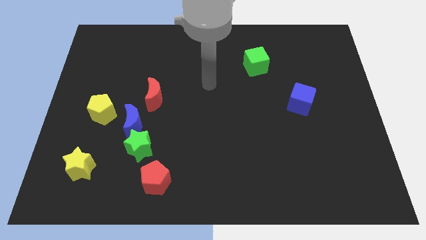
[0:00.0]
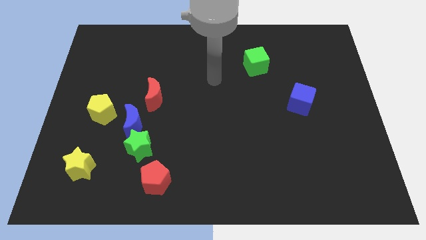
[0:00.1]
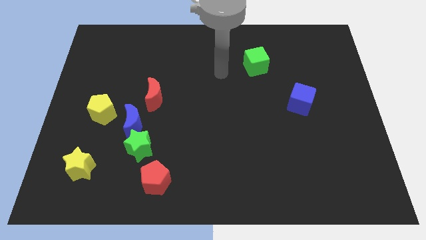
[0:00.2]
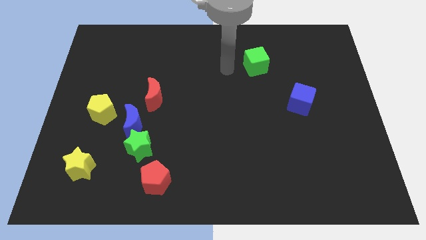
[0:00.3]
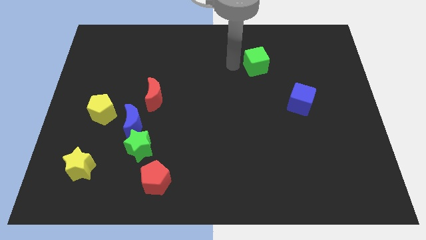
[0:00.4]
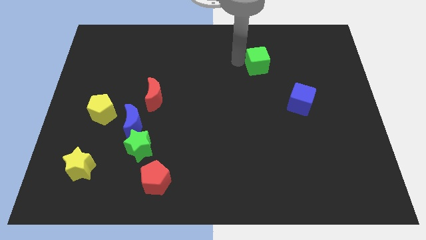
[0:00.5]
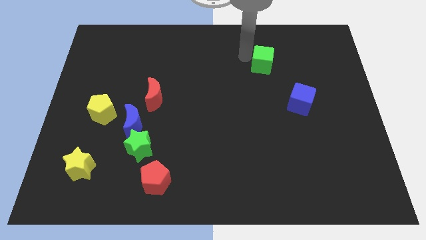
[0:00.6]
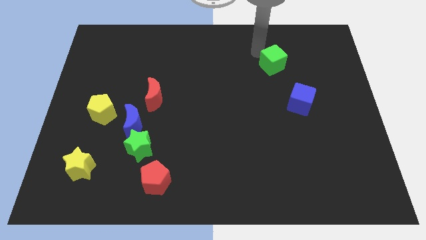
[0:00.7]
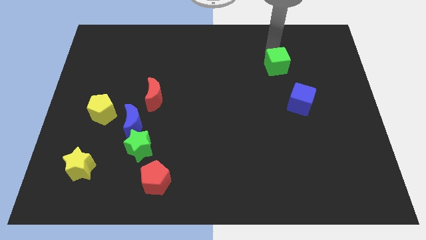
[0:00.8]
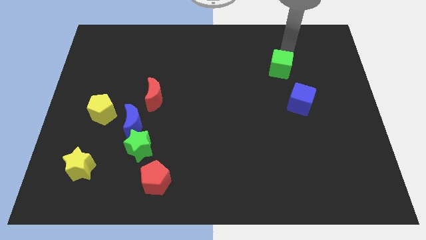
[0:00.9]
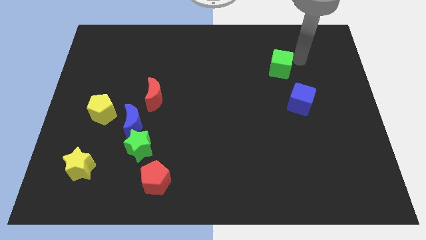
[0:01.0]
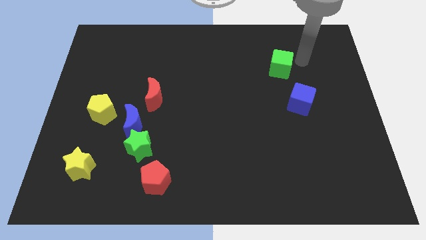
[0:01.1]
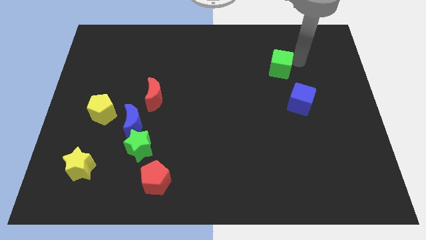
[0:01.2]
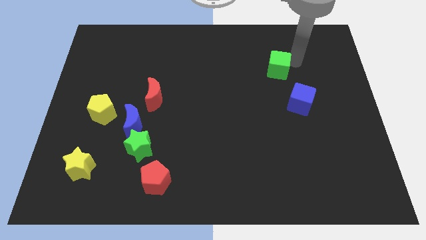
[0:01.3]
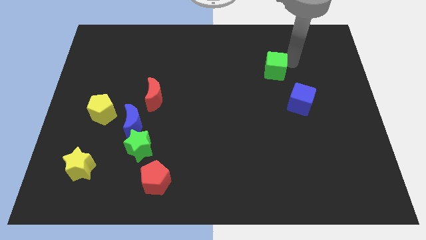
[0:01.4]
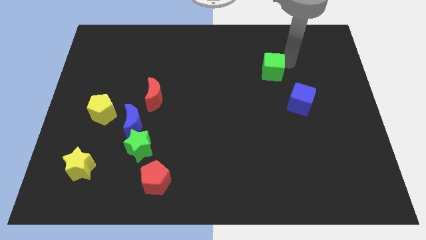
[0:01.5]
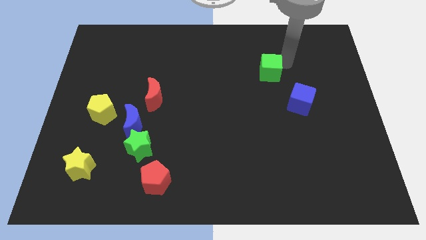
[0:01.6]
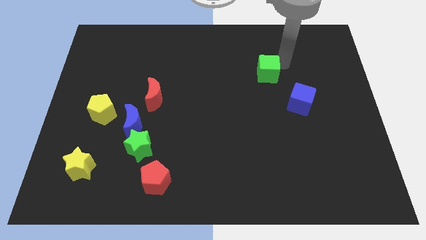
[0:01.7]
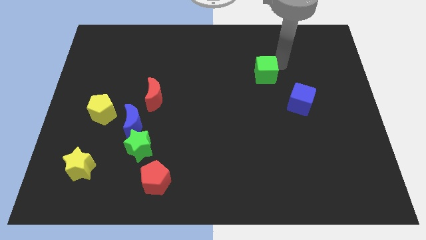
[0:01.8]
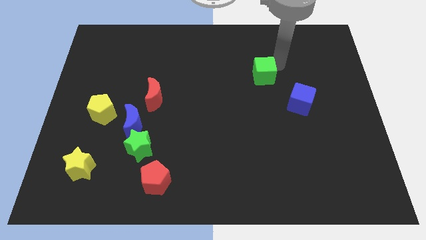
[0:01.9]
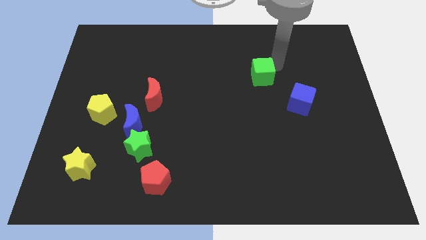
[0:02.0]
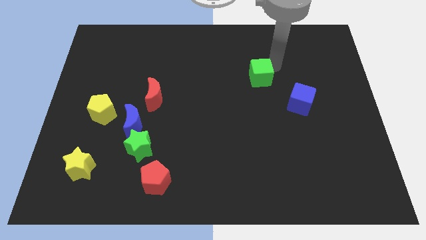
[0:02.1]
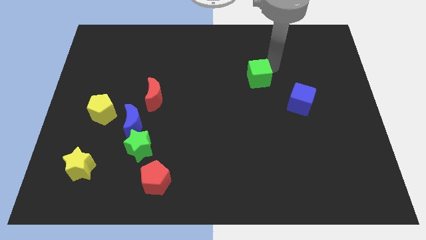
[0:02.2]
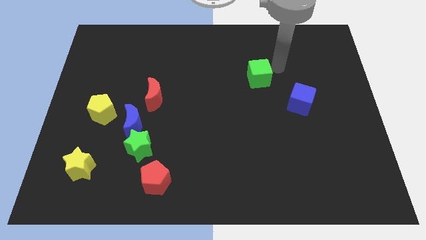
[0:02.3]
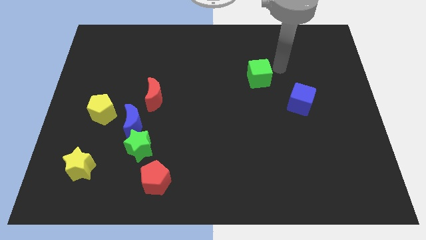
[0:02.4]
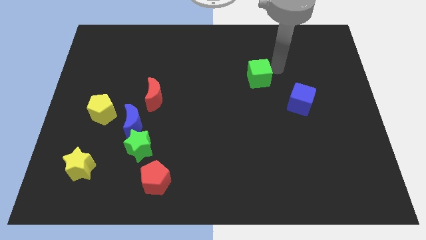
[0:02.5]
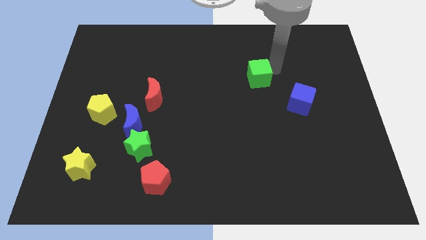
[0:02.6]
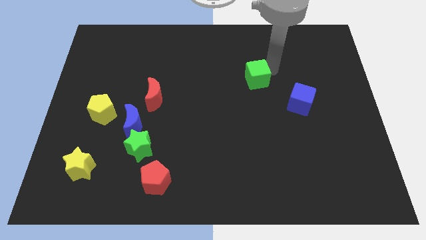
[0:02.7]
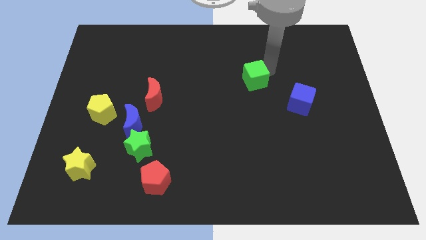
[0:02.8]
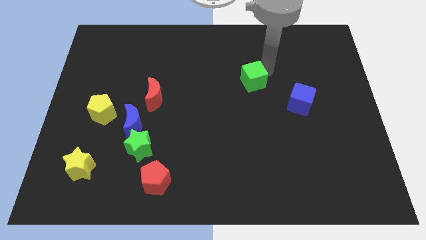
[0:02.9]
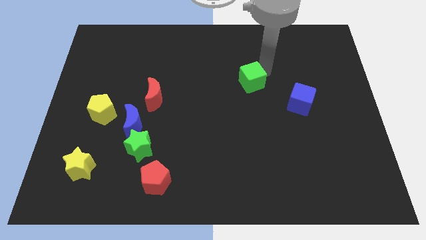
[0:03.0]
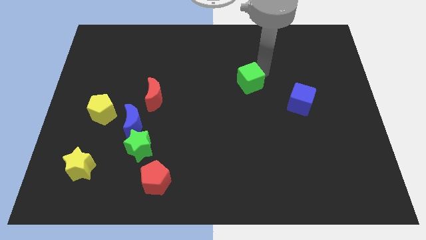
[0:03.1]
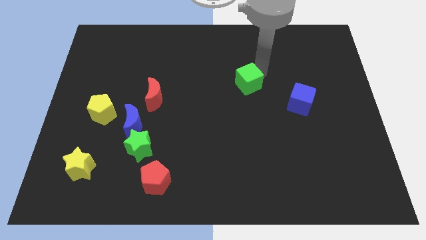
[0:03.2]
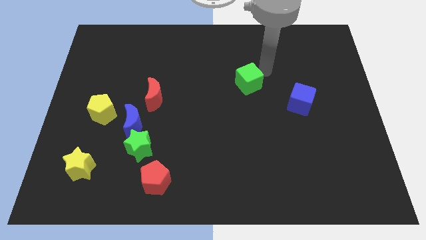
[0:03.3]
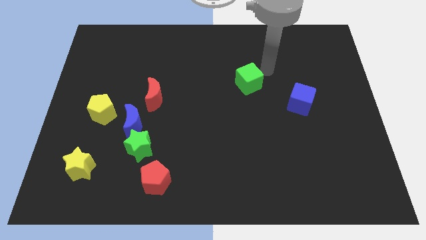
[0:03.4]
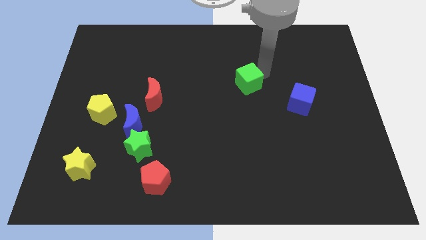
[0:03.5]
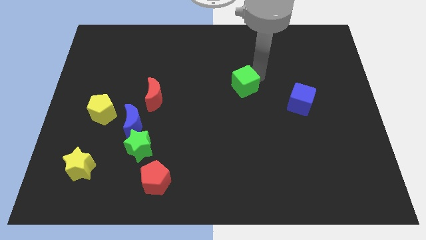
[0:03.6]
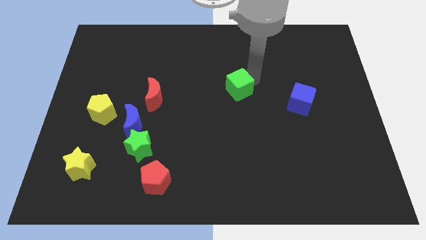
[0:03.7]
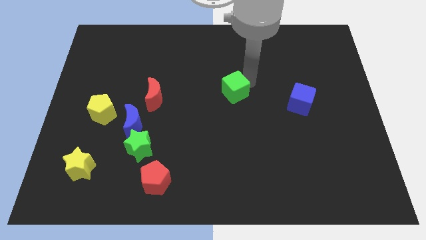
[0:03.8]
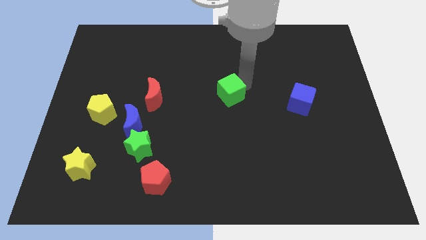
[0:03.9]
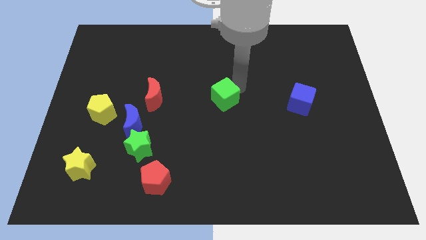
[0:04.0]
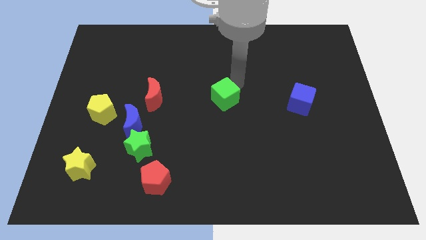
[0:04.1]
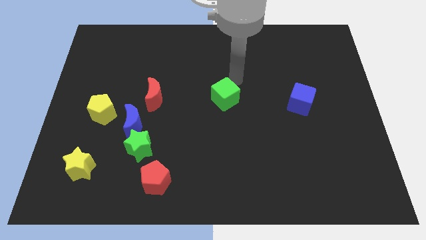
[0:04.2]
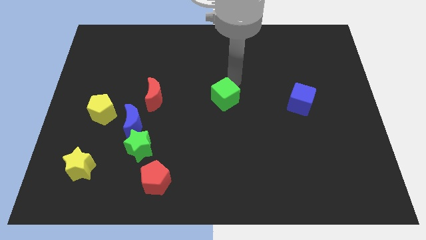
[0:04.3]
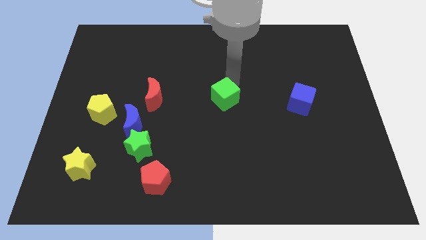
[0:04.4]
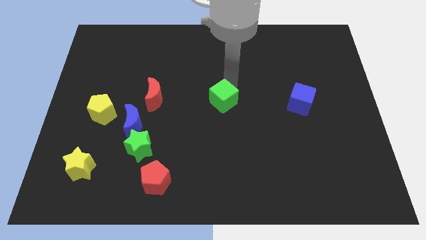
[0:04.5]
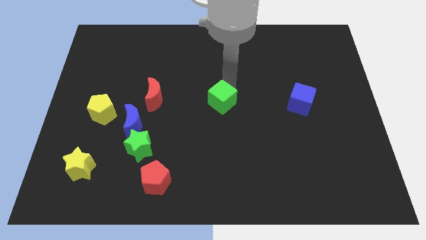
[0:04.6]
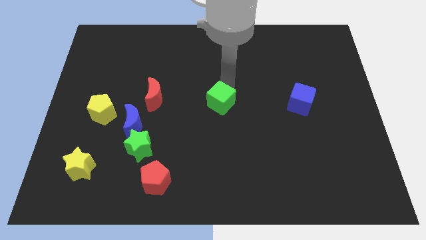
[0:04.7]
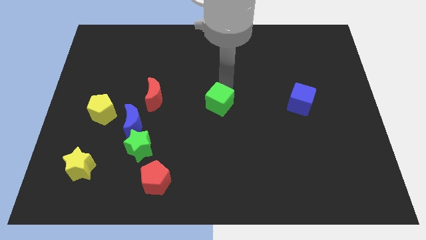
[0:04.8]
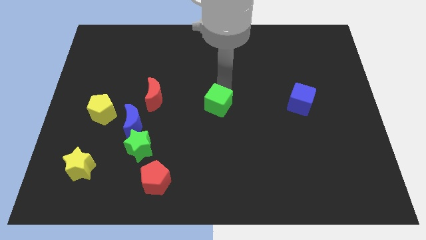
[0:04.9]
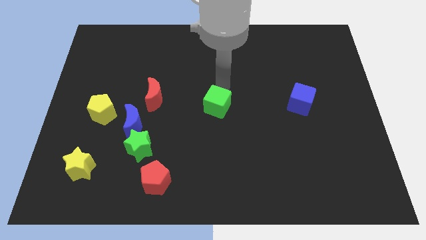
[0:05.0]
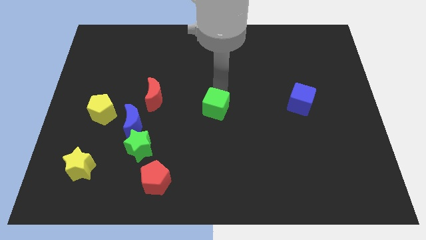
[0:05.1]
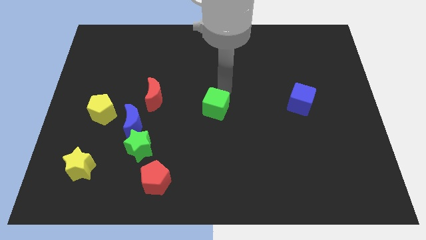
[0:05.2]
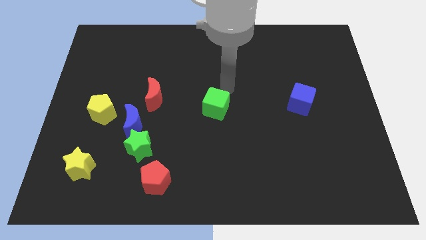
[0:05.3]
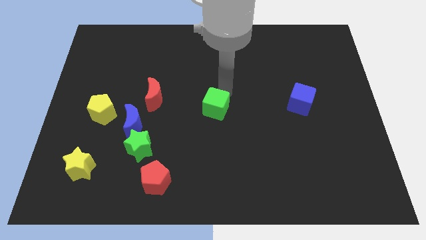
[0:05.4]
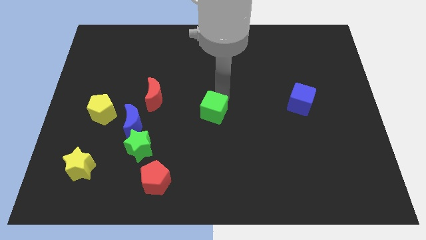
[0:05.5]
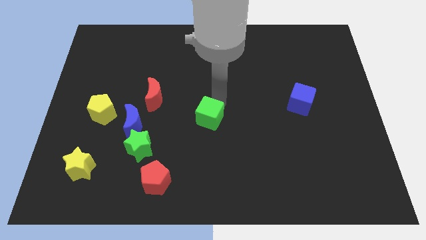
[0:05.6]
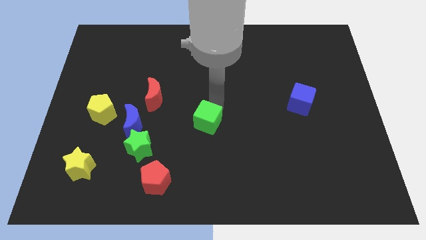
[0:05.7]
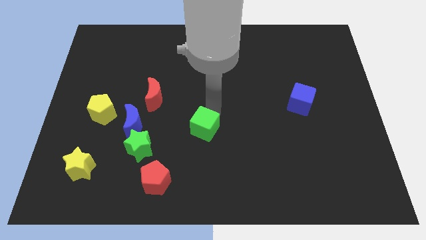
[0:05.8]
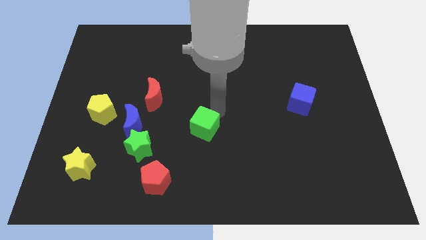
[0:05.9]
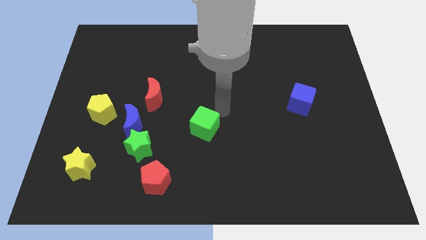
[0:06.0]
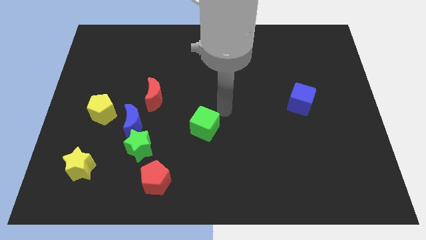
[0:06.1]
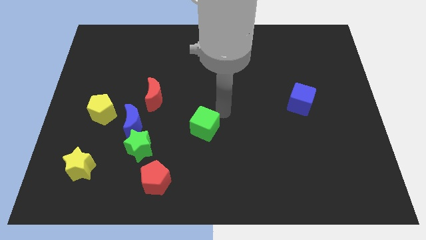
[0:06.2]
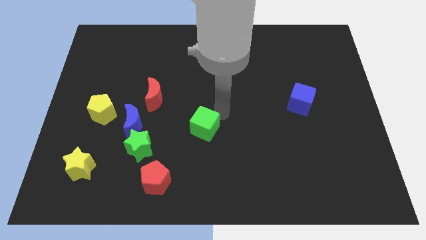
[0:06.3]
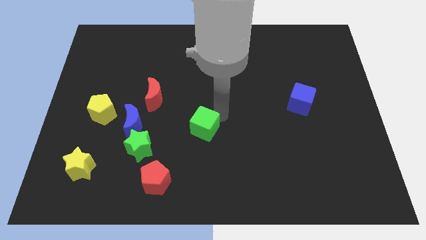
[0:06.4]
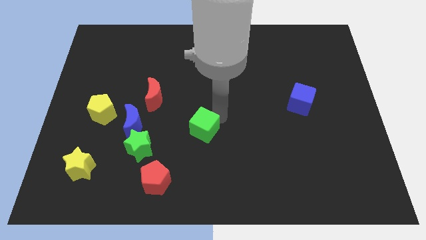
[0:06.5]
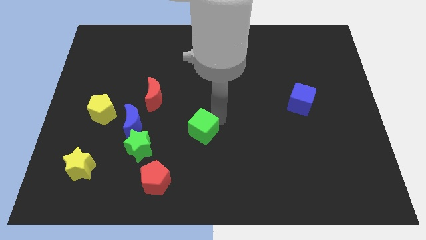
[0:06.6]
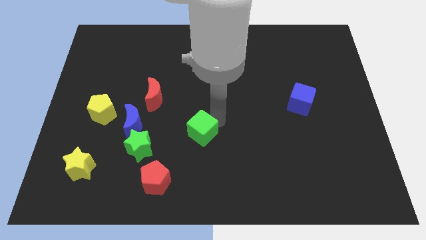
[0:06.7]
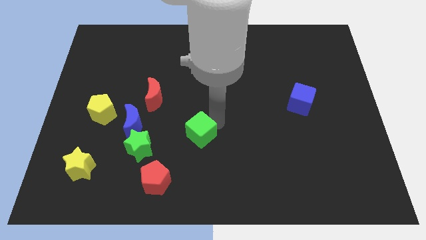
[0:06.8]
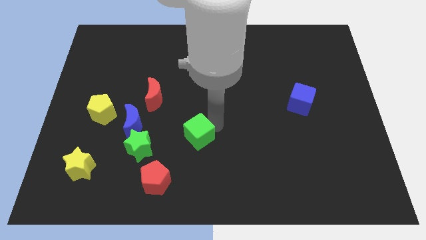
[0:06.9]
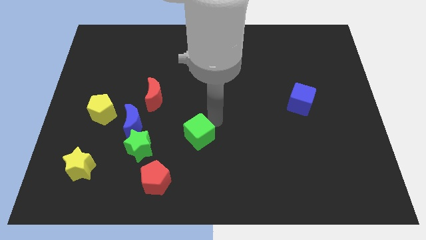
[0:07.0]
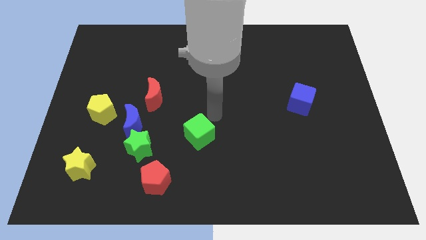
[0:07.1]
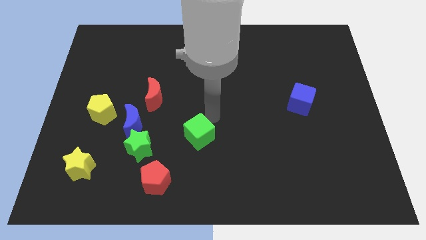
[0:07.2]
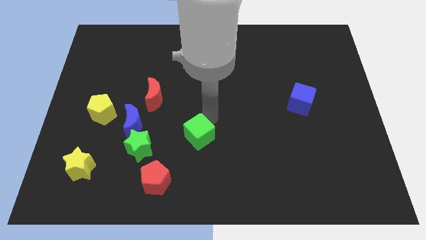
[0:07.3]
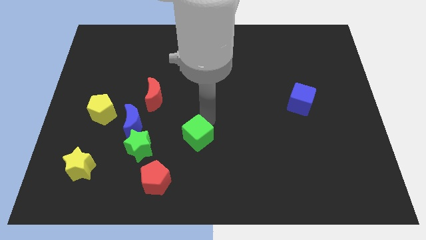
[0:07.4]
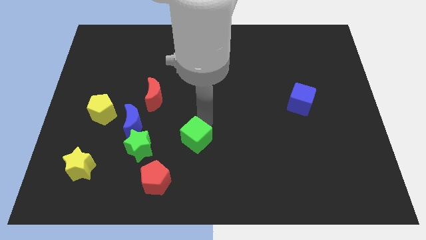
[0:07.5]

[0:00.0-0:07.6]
push the green cube to the top right of the red pentagon
